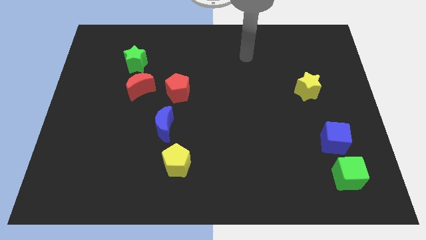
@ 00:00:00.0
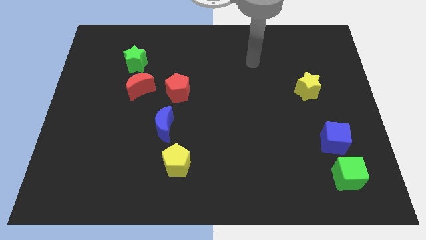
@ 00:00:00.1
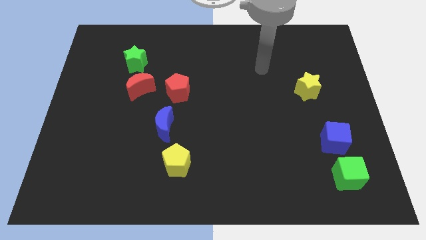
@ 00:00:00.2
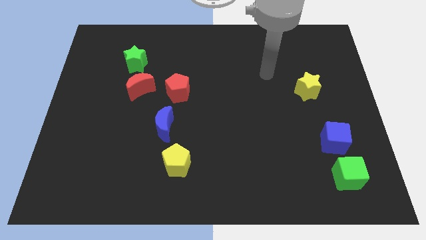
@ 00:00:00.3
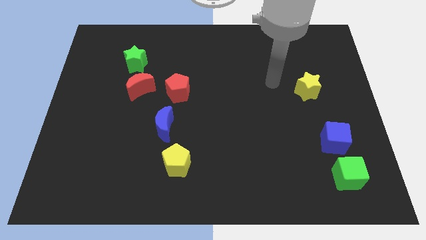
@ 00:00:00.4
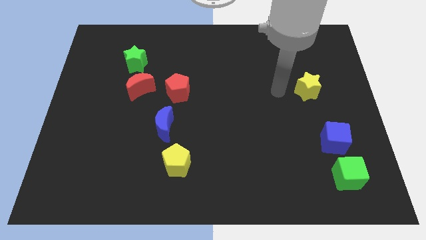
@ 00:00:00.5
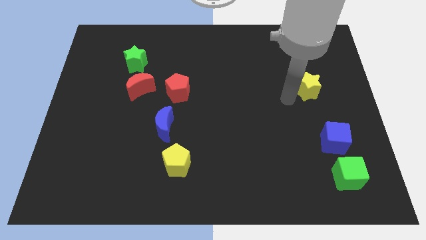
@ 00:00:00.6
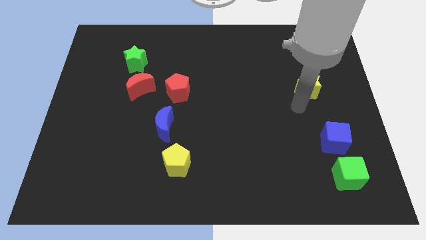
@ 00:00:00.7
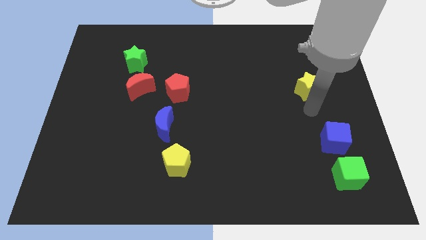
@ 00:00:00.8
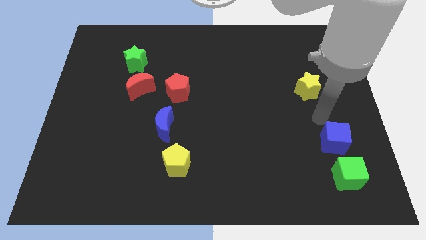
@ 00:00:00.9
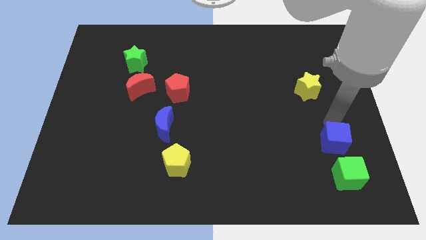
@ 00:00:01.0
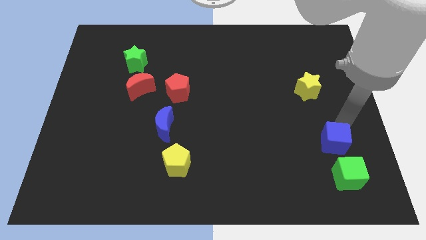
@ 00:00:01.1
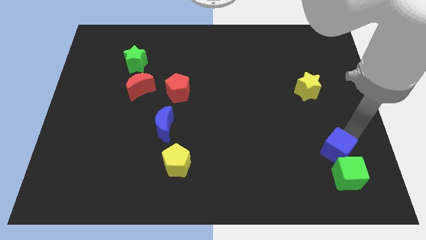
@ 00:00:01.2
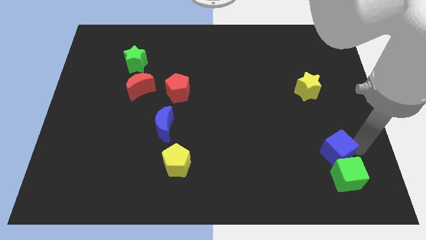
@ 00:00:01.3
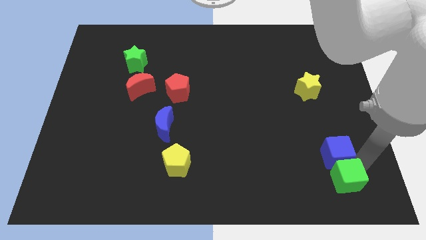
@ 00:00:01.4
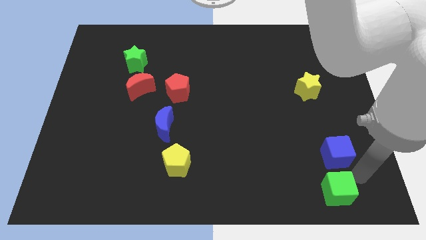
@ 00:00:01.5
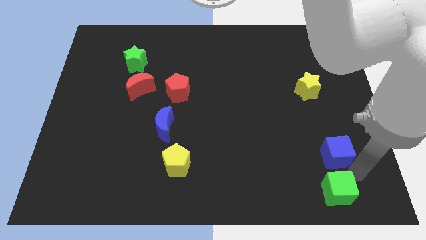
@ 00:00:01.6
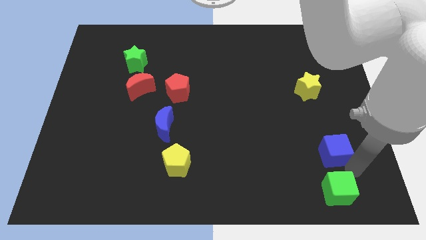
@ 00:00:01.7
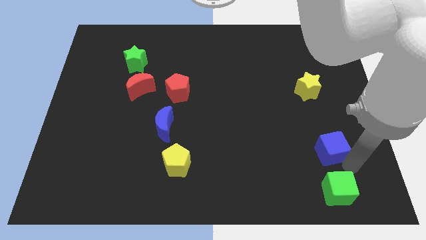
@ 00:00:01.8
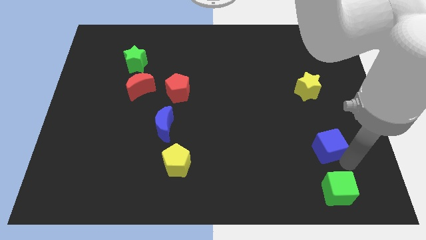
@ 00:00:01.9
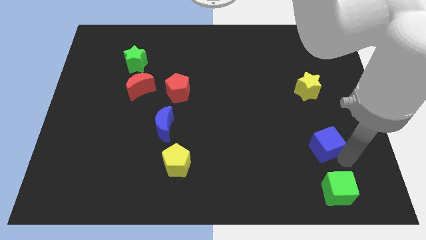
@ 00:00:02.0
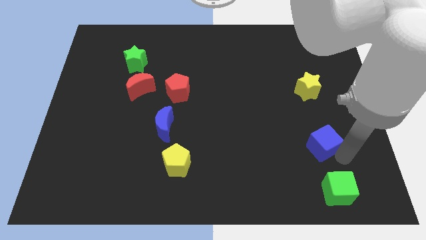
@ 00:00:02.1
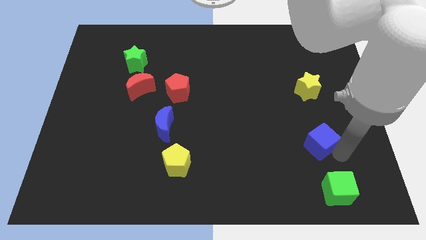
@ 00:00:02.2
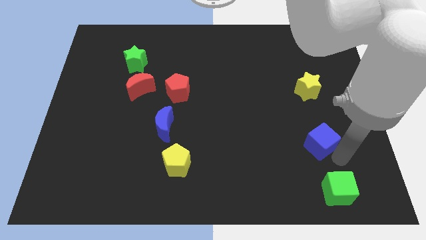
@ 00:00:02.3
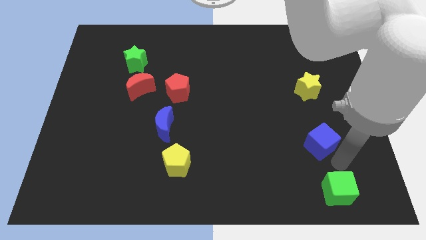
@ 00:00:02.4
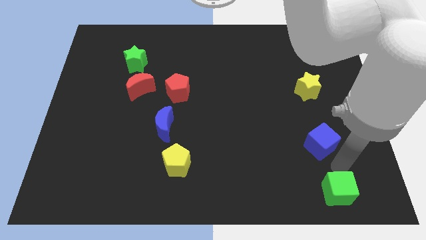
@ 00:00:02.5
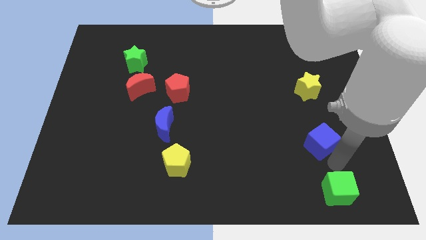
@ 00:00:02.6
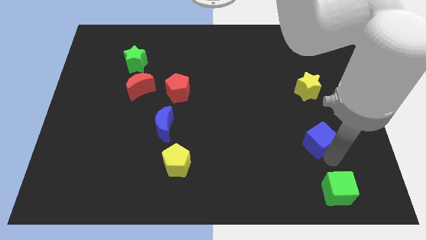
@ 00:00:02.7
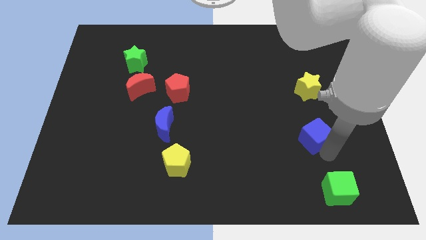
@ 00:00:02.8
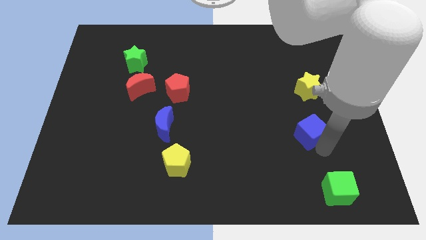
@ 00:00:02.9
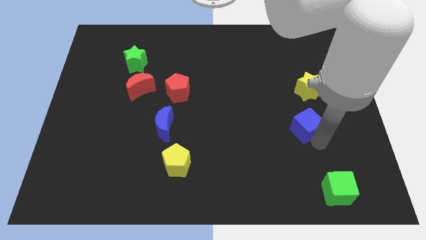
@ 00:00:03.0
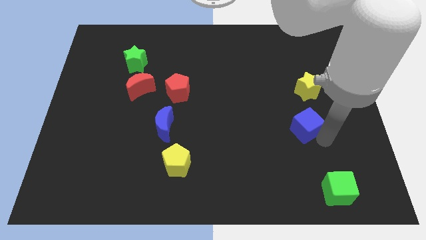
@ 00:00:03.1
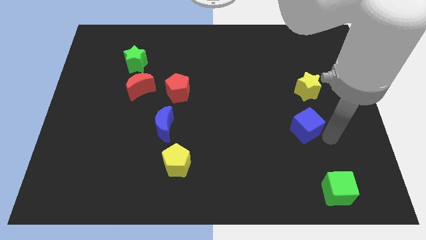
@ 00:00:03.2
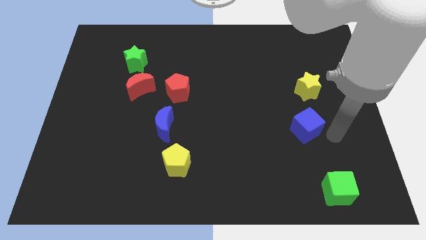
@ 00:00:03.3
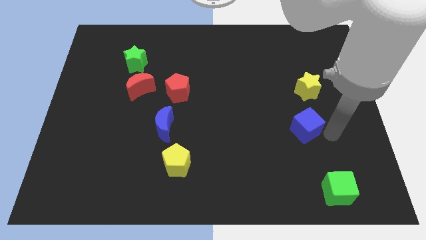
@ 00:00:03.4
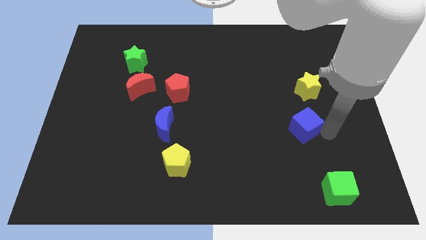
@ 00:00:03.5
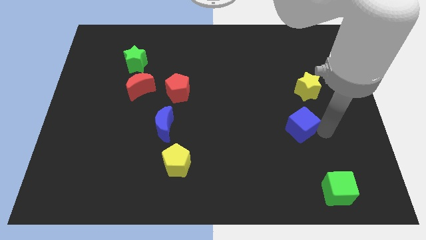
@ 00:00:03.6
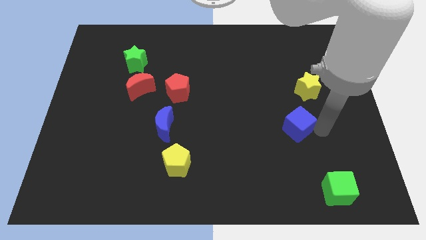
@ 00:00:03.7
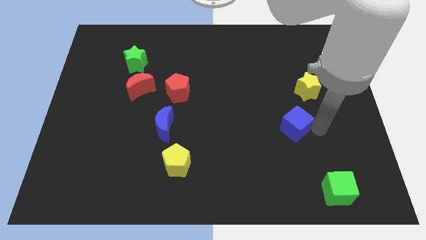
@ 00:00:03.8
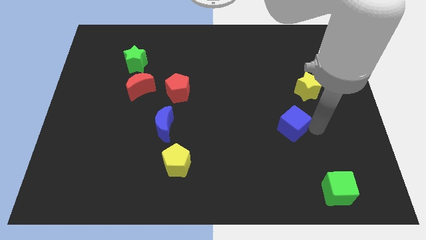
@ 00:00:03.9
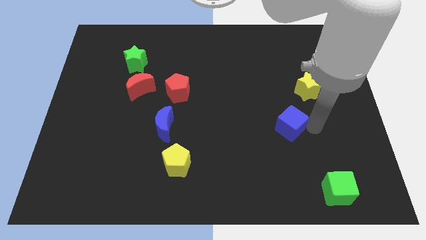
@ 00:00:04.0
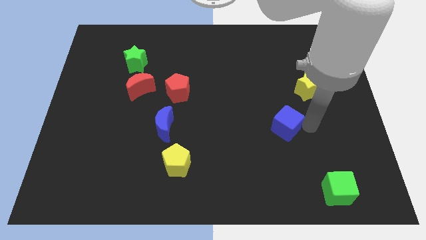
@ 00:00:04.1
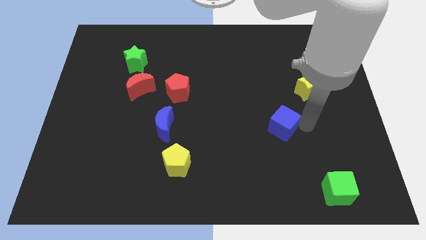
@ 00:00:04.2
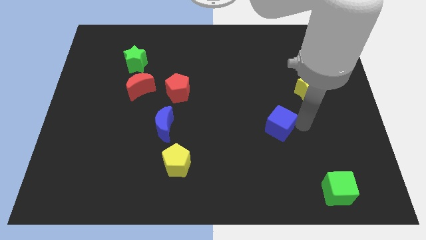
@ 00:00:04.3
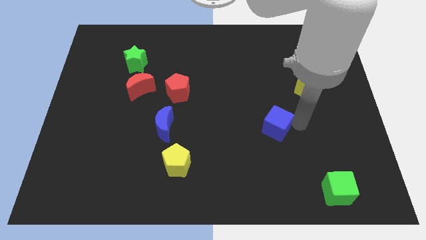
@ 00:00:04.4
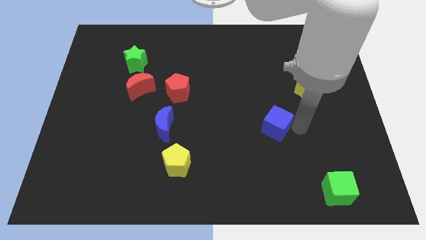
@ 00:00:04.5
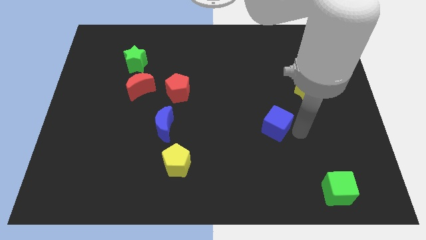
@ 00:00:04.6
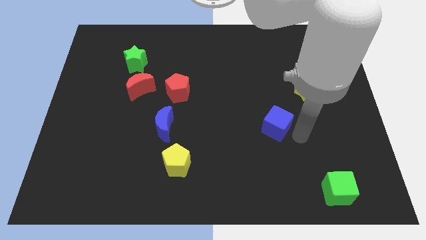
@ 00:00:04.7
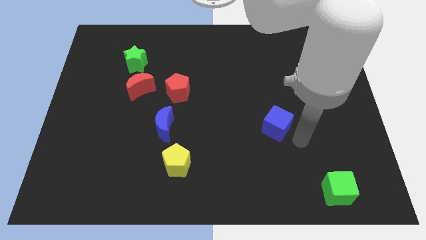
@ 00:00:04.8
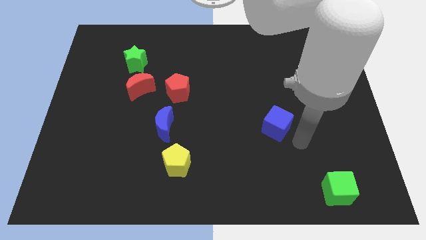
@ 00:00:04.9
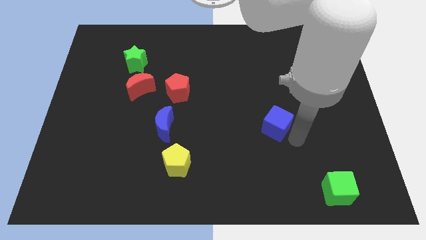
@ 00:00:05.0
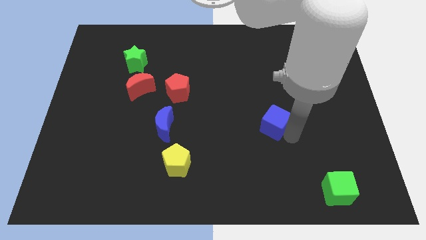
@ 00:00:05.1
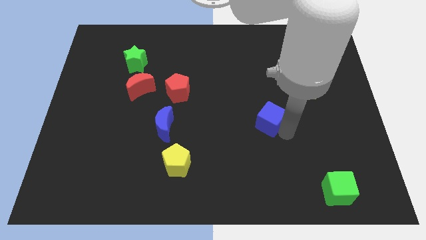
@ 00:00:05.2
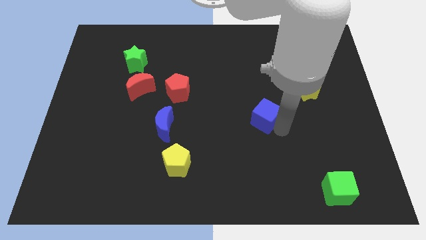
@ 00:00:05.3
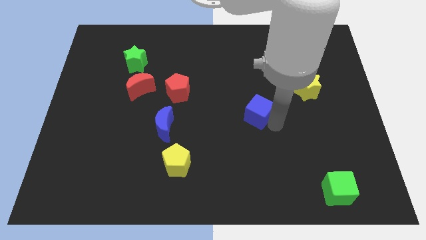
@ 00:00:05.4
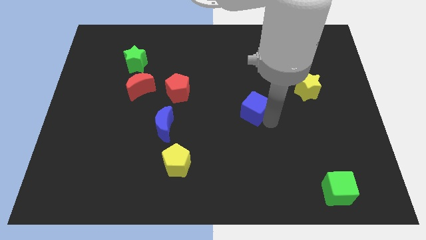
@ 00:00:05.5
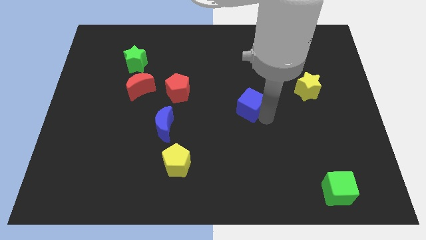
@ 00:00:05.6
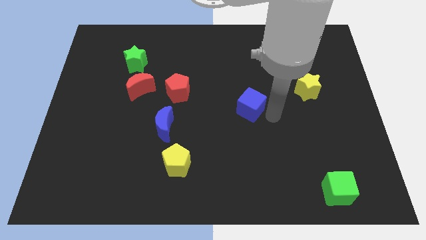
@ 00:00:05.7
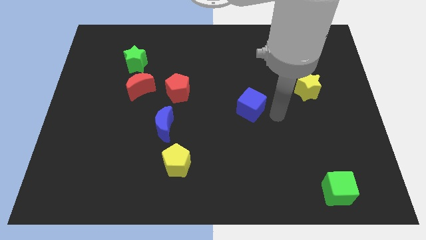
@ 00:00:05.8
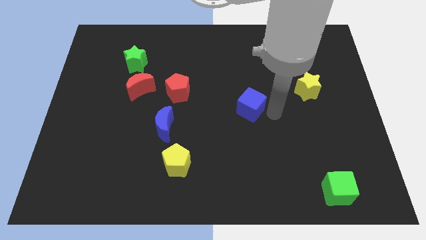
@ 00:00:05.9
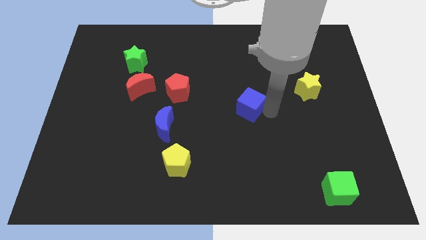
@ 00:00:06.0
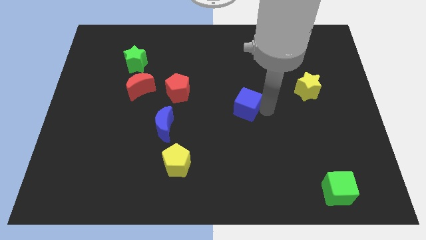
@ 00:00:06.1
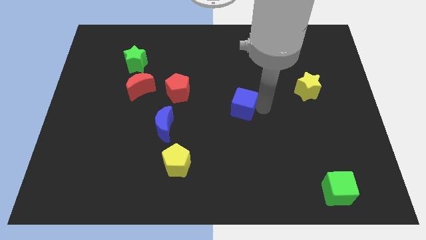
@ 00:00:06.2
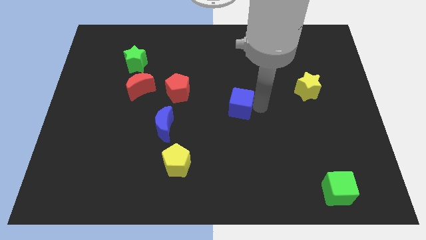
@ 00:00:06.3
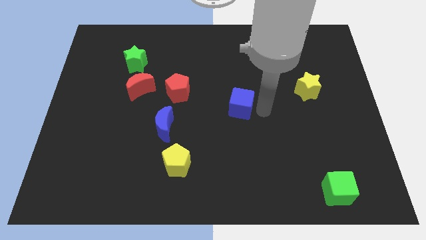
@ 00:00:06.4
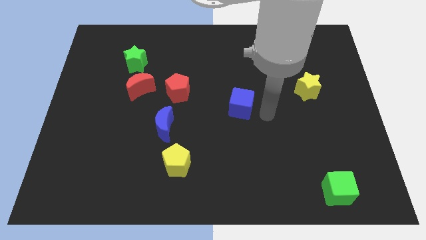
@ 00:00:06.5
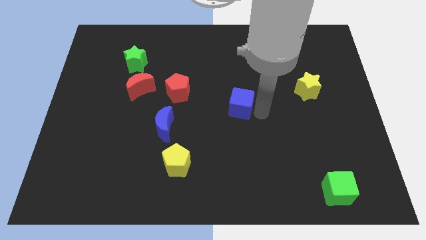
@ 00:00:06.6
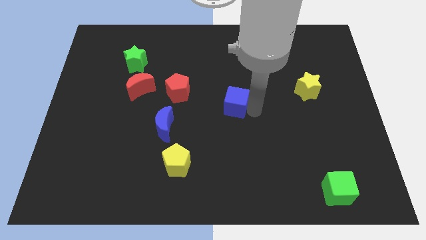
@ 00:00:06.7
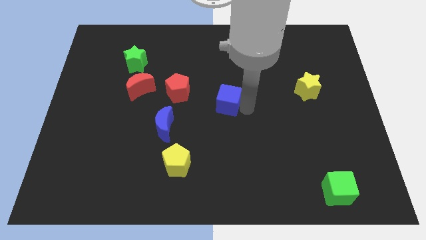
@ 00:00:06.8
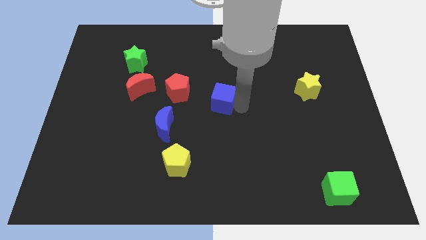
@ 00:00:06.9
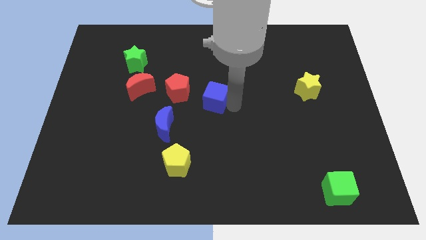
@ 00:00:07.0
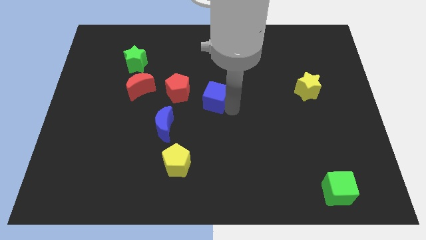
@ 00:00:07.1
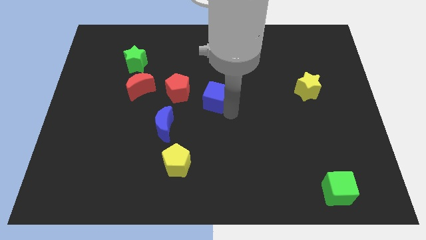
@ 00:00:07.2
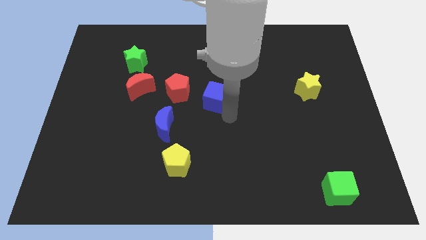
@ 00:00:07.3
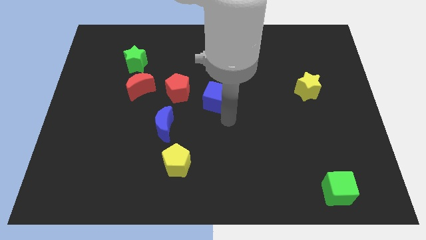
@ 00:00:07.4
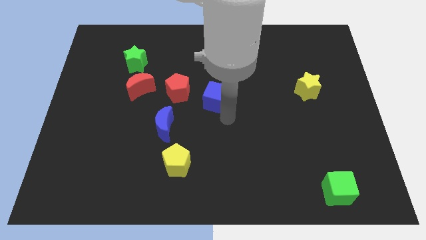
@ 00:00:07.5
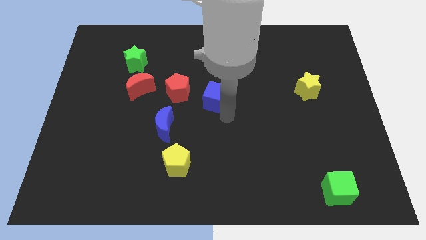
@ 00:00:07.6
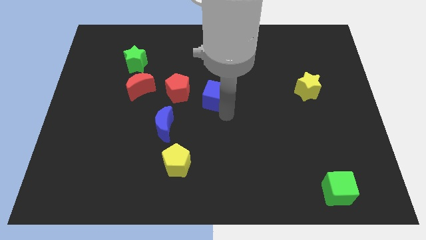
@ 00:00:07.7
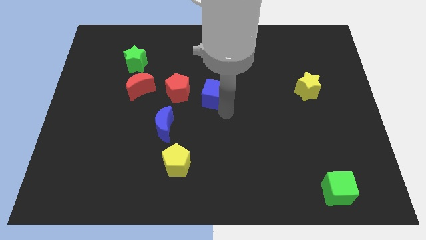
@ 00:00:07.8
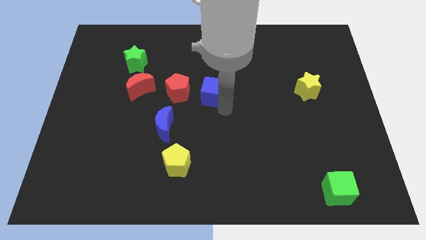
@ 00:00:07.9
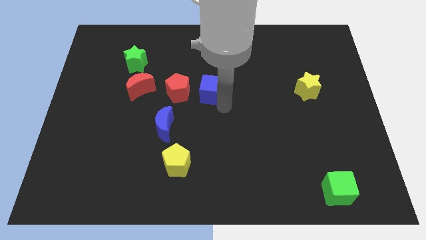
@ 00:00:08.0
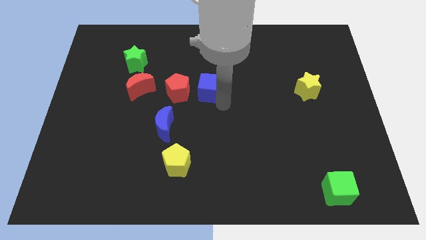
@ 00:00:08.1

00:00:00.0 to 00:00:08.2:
put the blue cube diagonally up and to the right of the red pentagon
